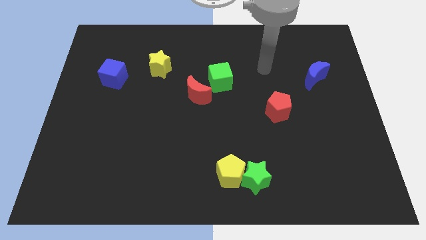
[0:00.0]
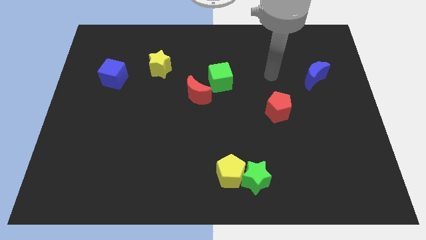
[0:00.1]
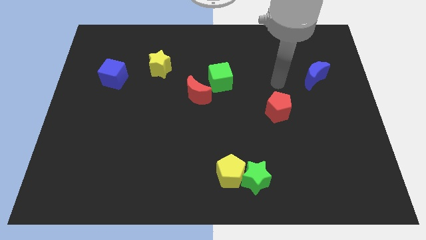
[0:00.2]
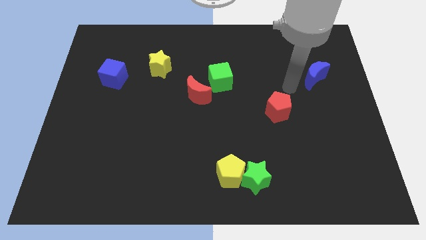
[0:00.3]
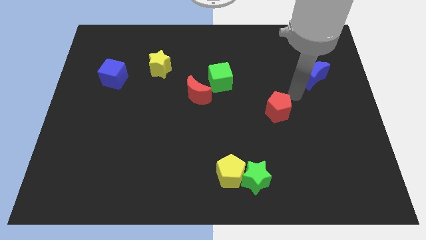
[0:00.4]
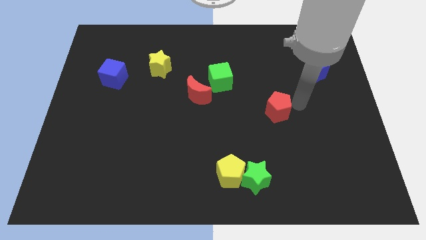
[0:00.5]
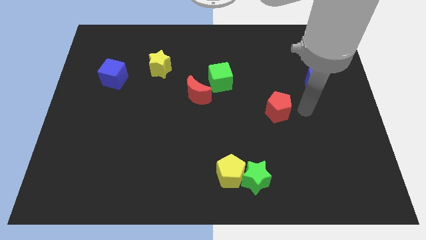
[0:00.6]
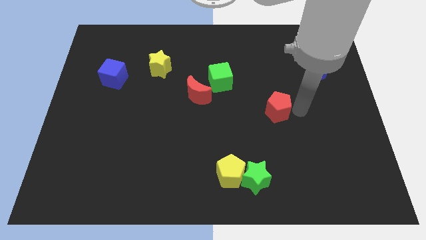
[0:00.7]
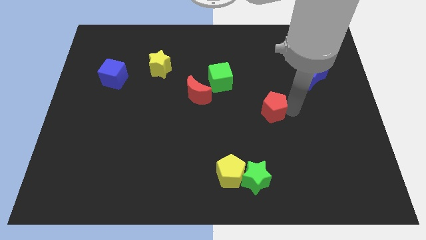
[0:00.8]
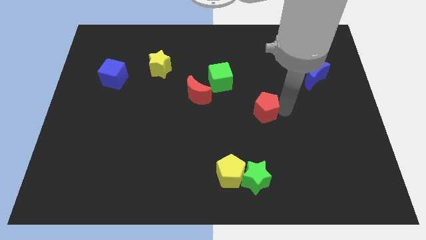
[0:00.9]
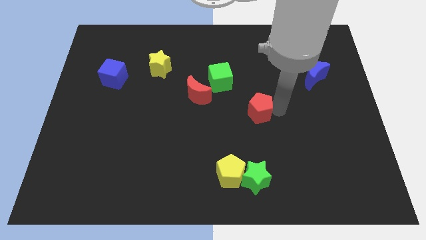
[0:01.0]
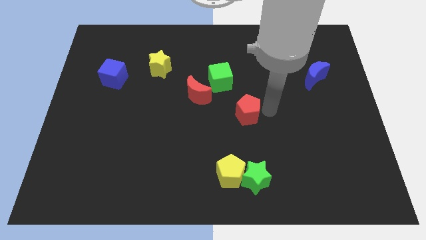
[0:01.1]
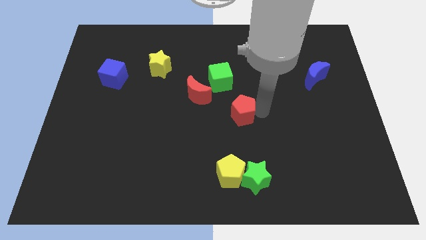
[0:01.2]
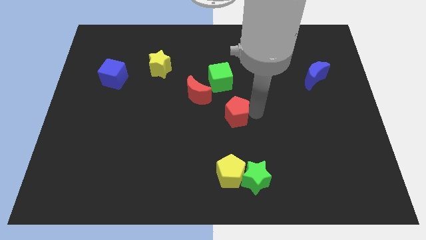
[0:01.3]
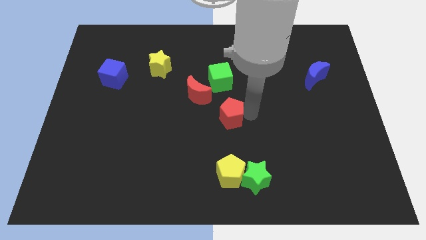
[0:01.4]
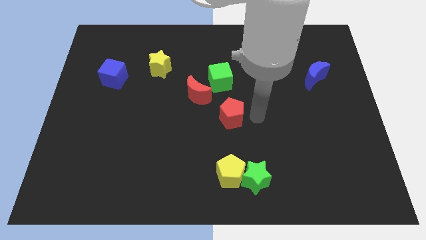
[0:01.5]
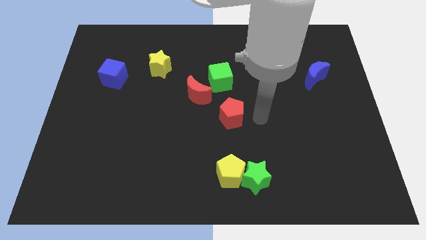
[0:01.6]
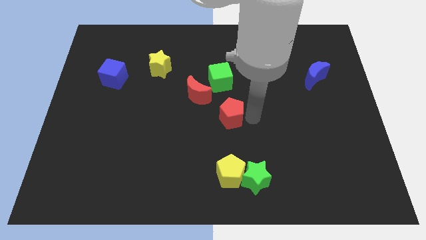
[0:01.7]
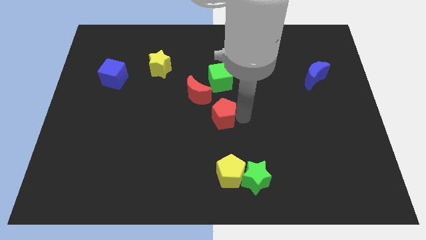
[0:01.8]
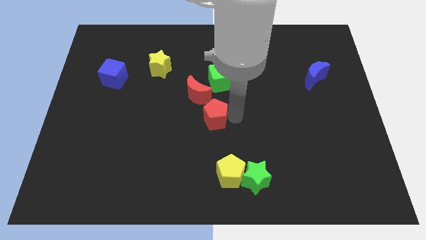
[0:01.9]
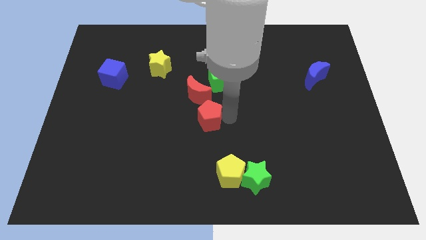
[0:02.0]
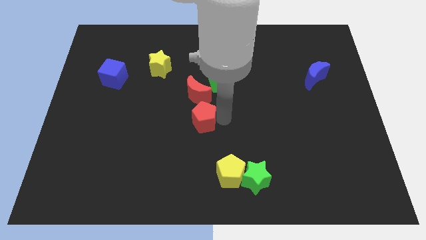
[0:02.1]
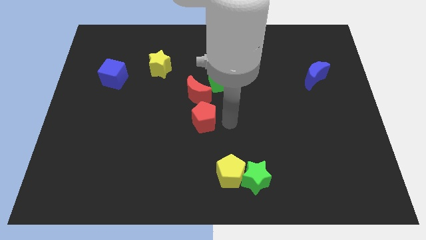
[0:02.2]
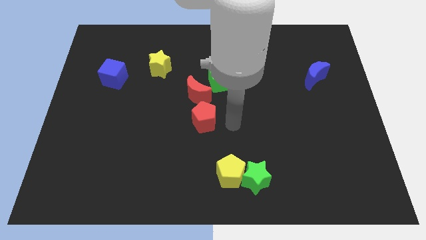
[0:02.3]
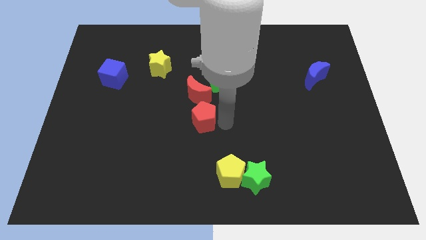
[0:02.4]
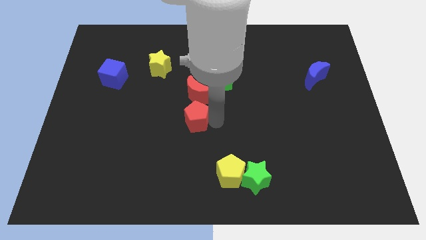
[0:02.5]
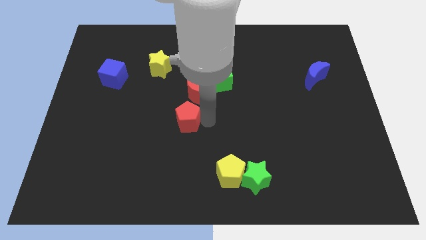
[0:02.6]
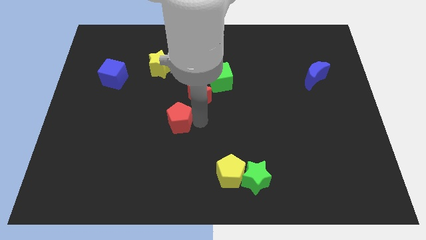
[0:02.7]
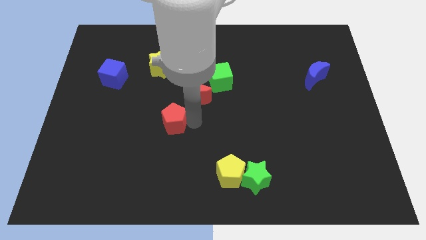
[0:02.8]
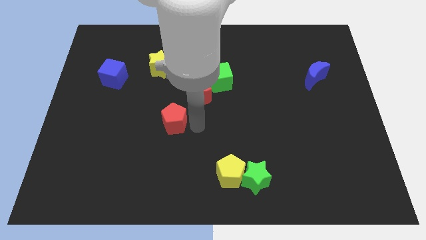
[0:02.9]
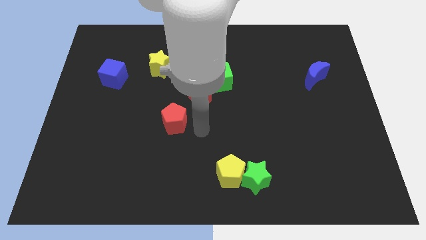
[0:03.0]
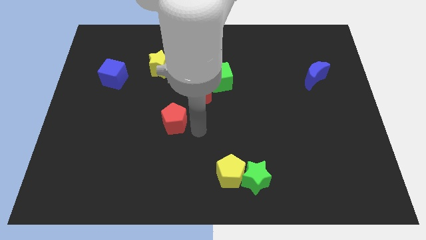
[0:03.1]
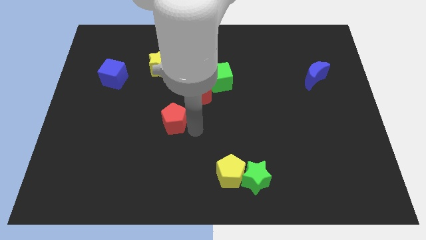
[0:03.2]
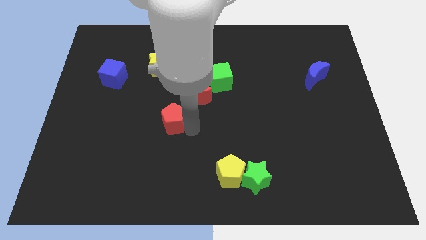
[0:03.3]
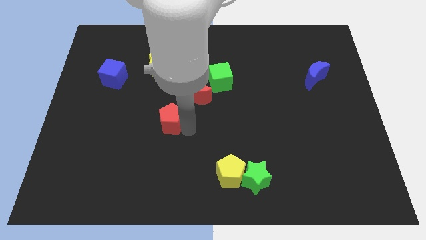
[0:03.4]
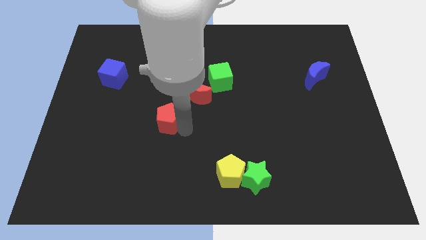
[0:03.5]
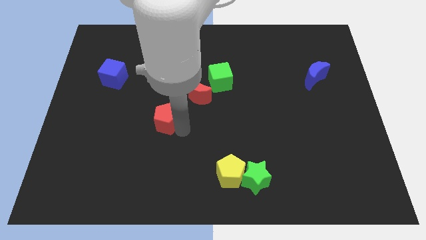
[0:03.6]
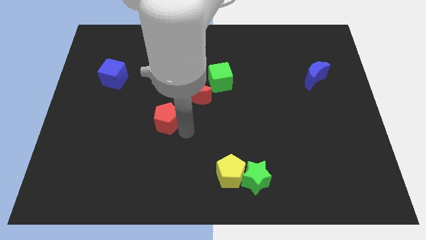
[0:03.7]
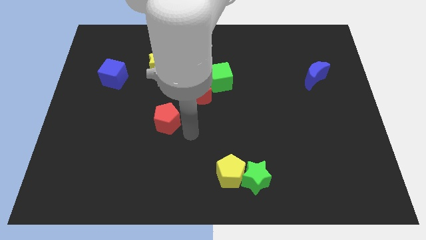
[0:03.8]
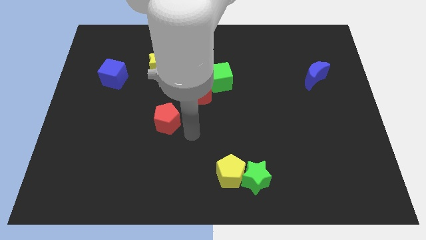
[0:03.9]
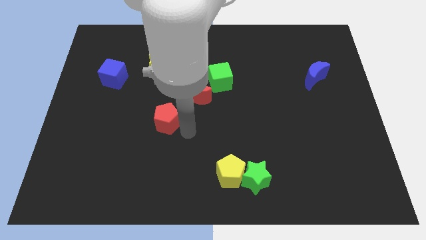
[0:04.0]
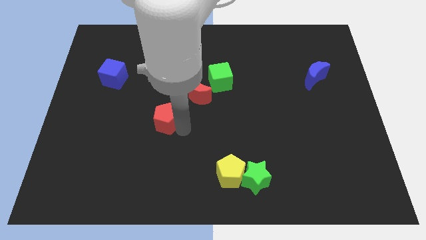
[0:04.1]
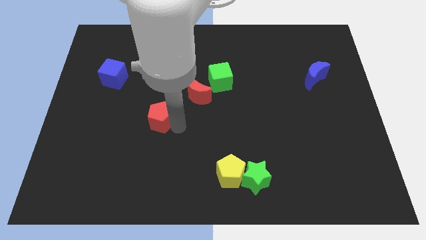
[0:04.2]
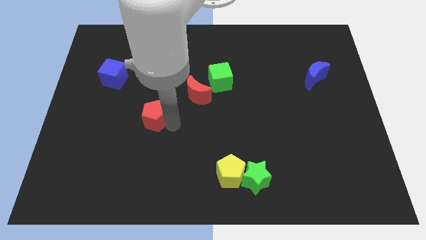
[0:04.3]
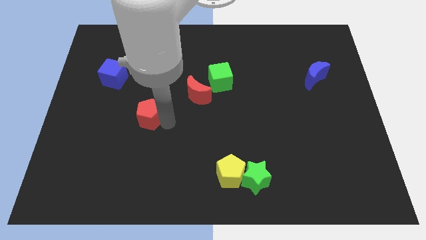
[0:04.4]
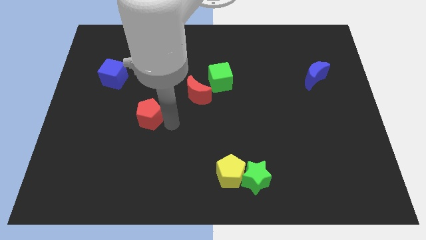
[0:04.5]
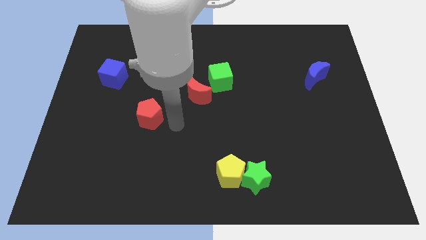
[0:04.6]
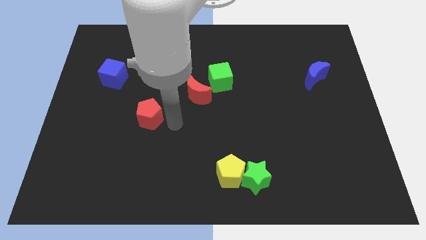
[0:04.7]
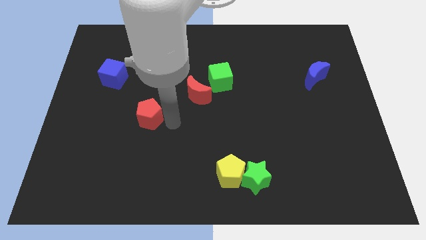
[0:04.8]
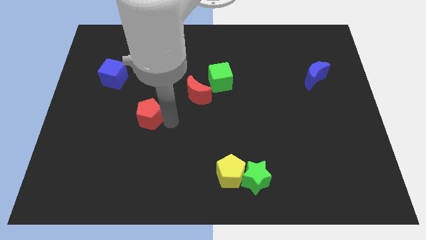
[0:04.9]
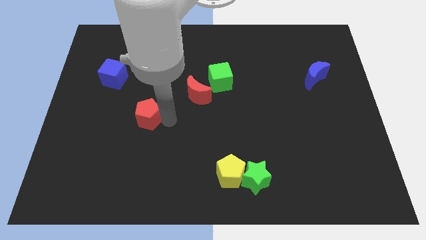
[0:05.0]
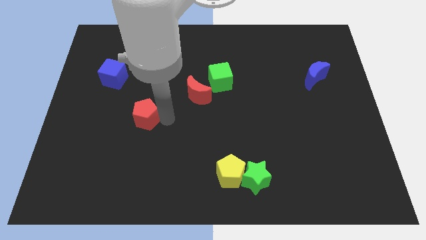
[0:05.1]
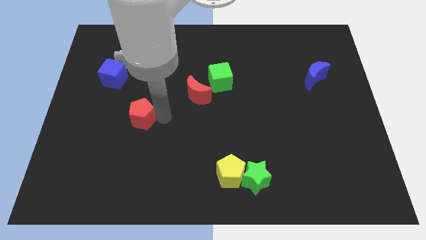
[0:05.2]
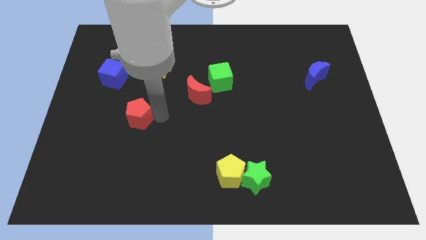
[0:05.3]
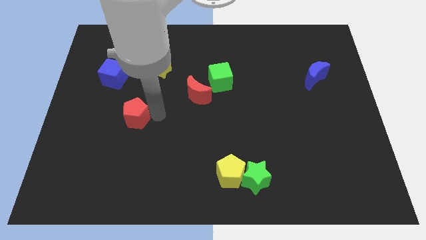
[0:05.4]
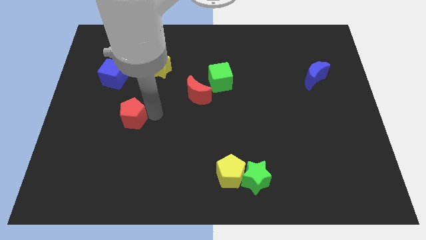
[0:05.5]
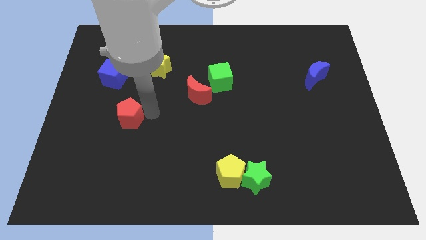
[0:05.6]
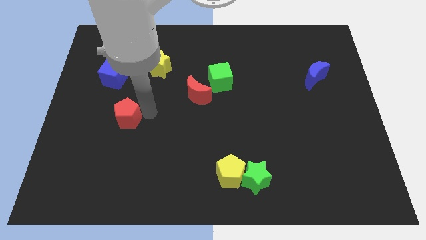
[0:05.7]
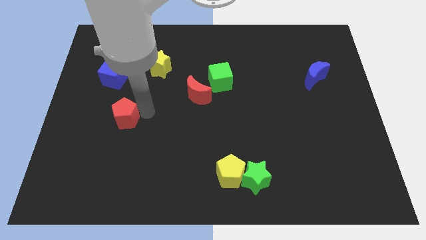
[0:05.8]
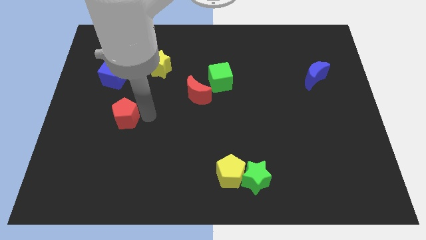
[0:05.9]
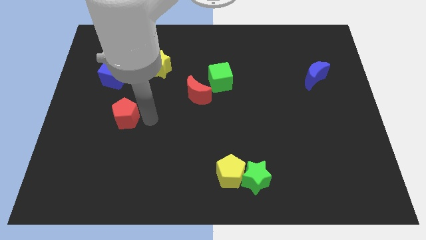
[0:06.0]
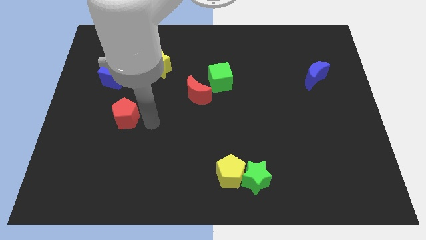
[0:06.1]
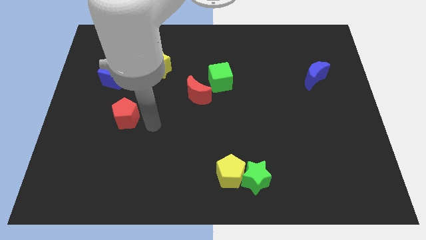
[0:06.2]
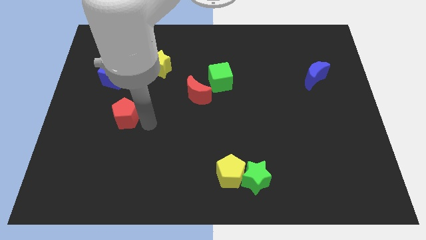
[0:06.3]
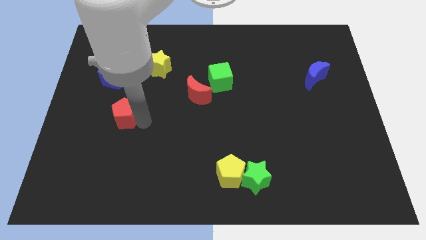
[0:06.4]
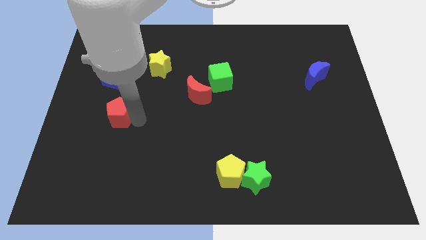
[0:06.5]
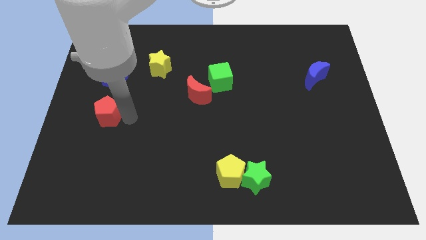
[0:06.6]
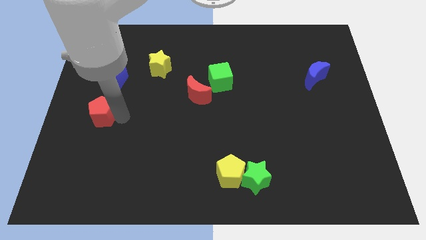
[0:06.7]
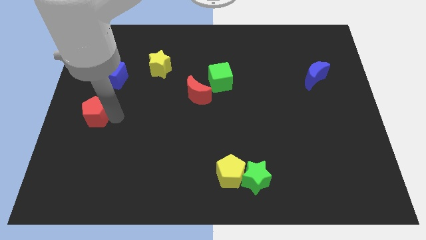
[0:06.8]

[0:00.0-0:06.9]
put the red pentagon to the center left
